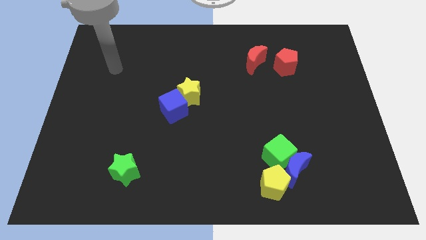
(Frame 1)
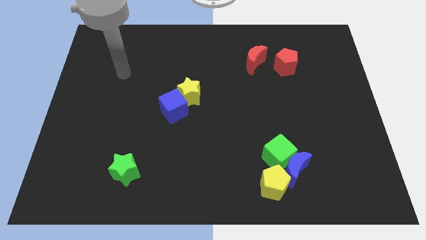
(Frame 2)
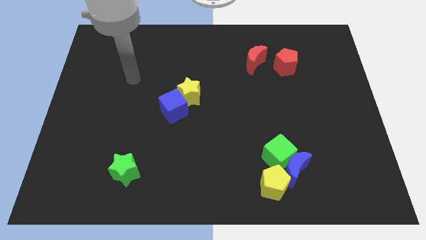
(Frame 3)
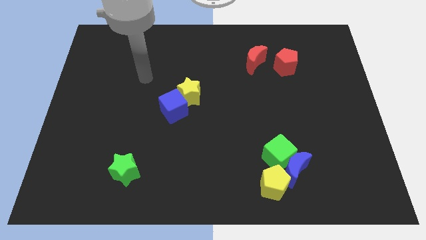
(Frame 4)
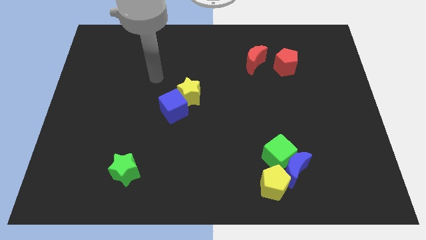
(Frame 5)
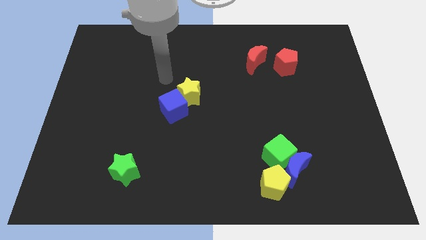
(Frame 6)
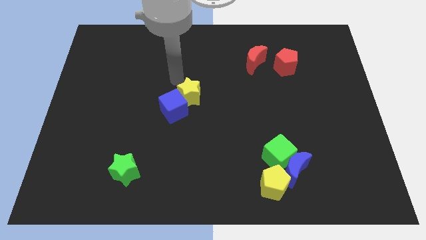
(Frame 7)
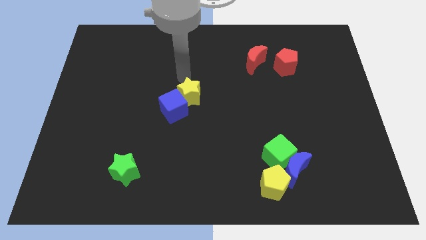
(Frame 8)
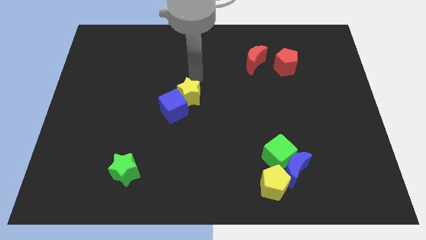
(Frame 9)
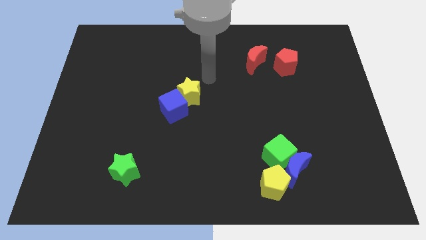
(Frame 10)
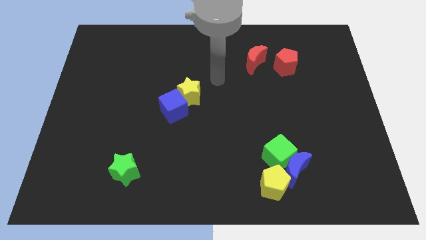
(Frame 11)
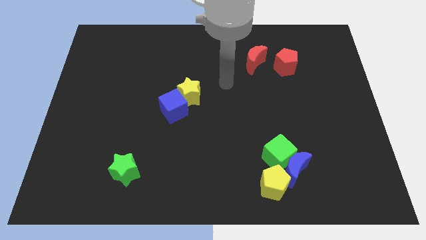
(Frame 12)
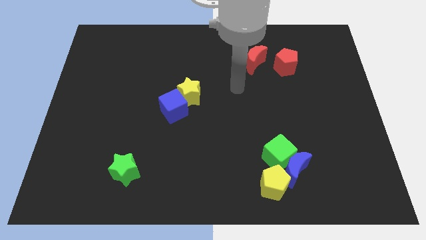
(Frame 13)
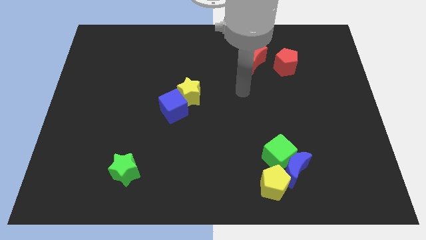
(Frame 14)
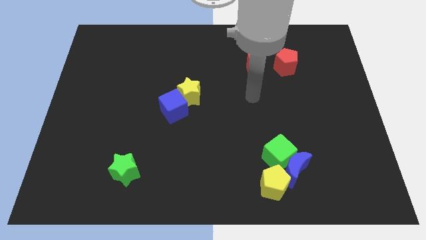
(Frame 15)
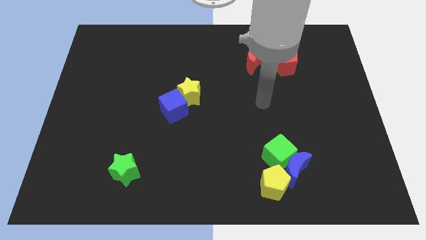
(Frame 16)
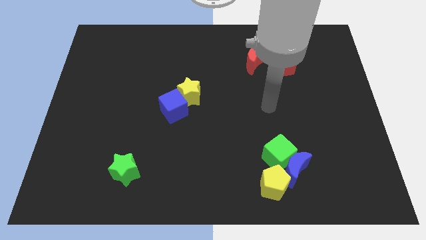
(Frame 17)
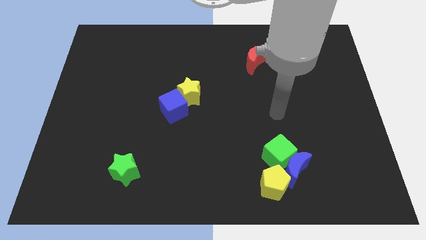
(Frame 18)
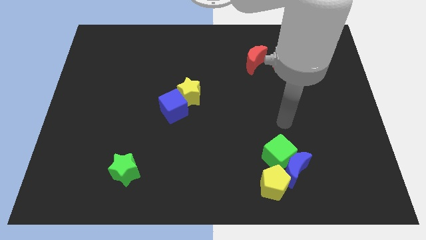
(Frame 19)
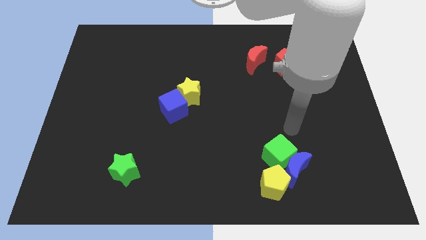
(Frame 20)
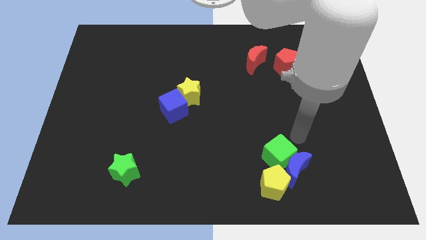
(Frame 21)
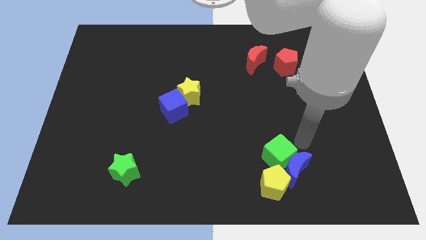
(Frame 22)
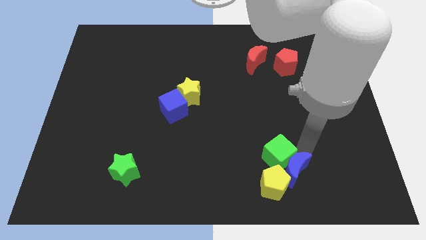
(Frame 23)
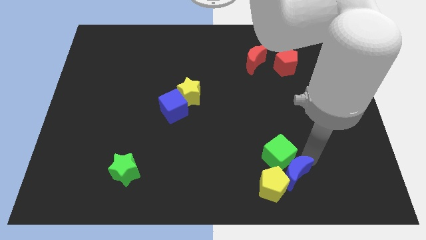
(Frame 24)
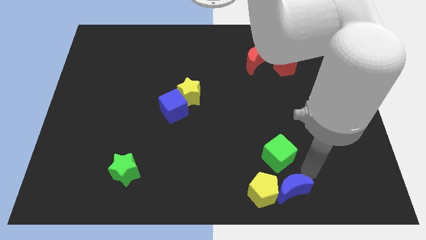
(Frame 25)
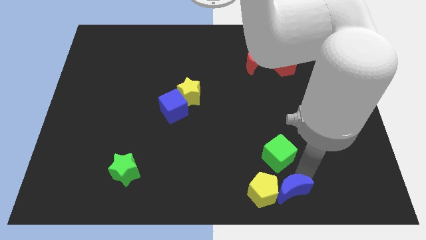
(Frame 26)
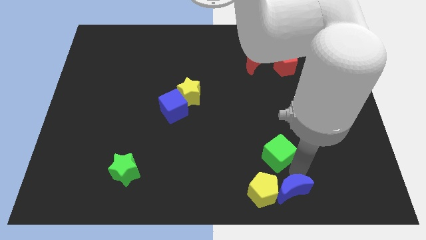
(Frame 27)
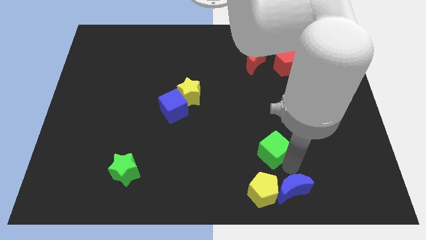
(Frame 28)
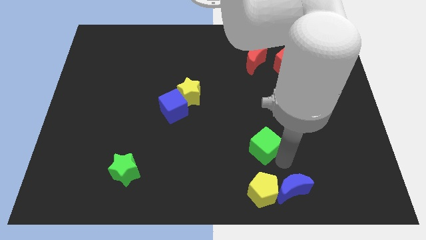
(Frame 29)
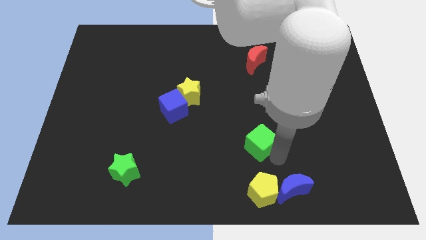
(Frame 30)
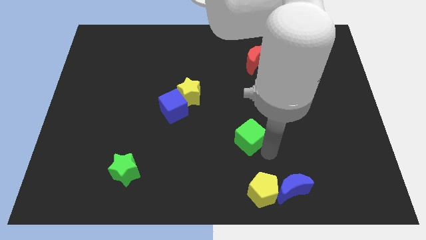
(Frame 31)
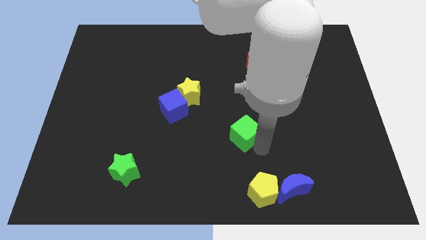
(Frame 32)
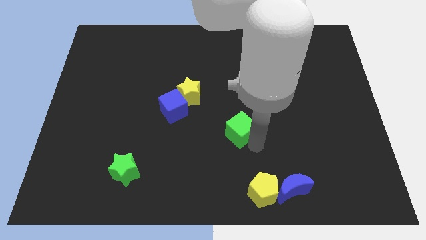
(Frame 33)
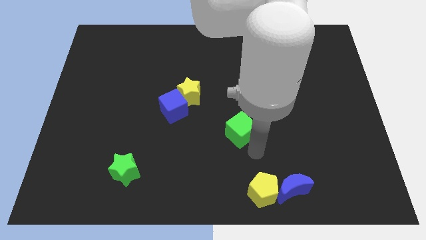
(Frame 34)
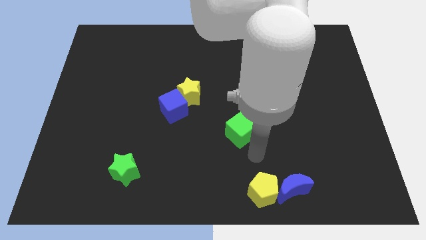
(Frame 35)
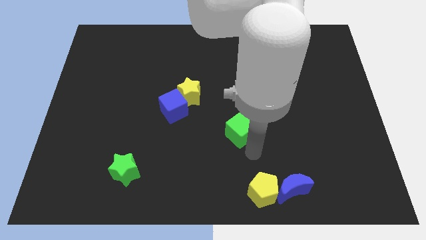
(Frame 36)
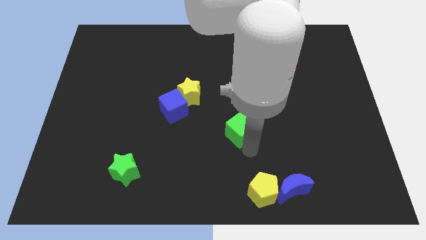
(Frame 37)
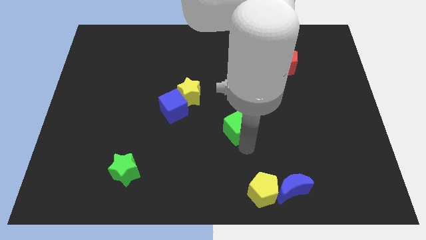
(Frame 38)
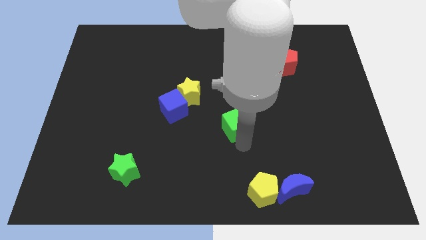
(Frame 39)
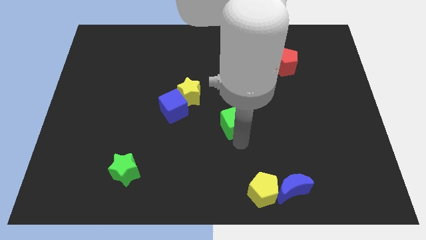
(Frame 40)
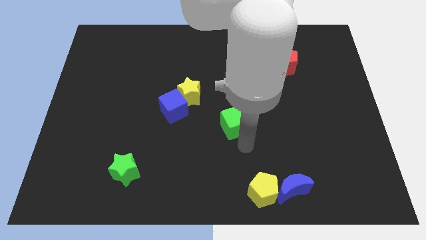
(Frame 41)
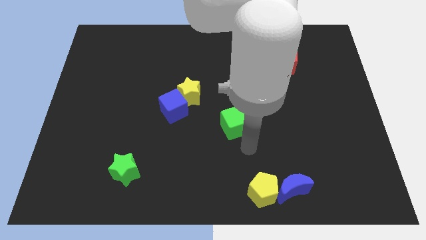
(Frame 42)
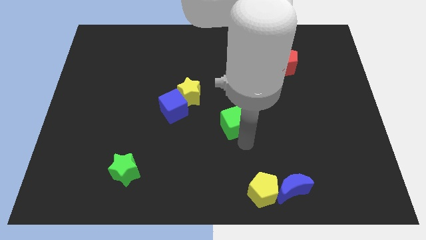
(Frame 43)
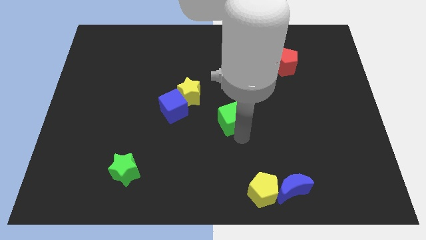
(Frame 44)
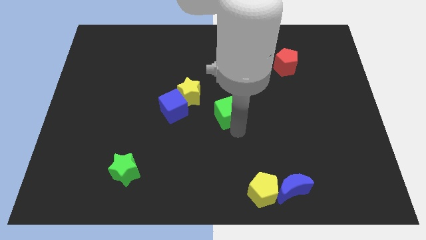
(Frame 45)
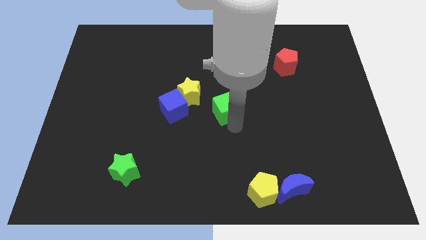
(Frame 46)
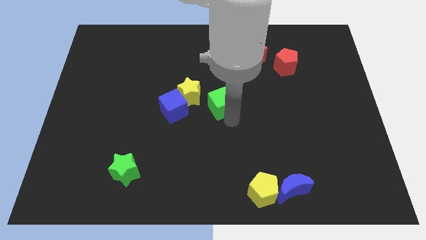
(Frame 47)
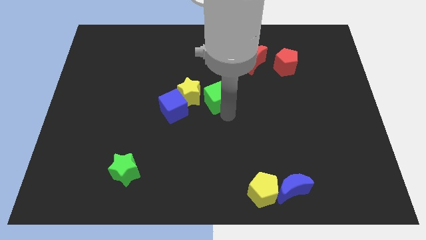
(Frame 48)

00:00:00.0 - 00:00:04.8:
slide the green cube up and left

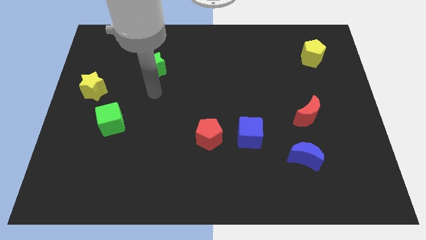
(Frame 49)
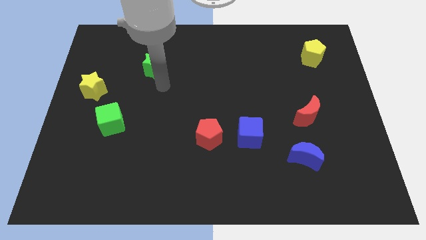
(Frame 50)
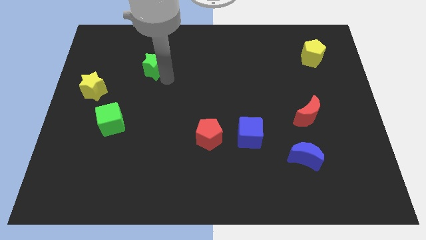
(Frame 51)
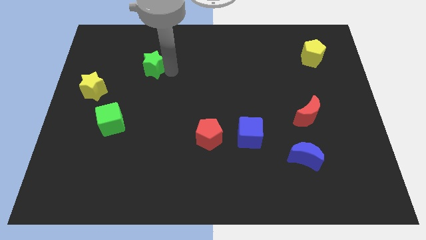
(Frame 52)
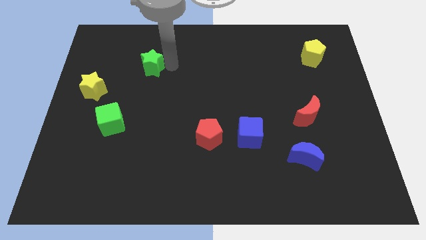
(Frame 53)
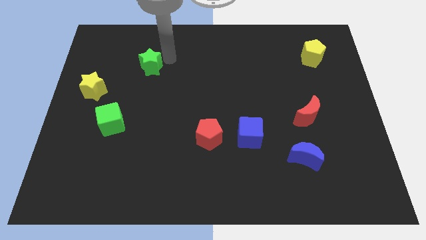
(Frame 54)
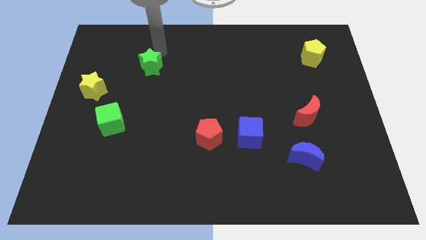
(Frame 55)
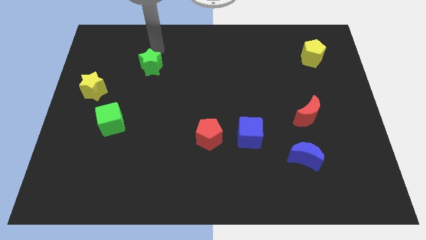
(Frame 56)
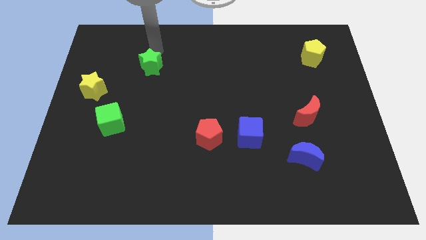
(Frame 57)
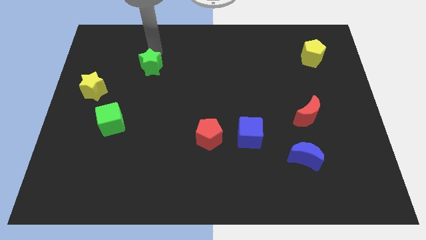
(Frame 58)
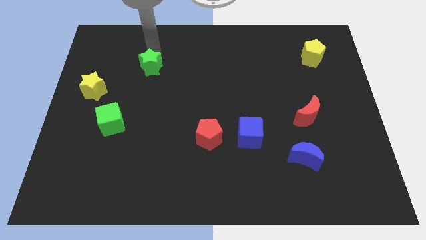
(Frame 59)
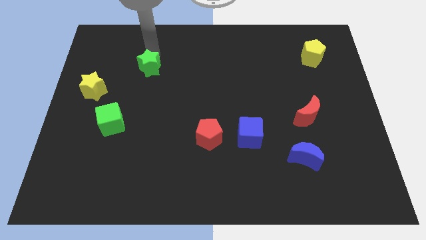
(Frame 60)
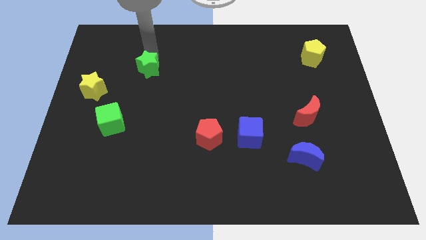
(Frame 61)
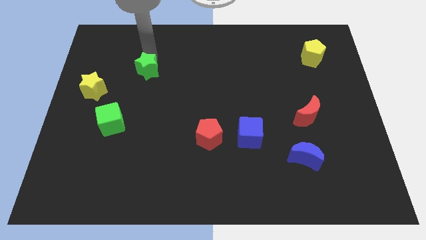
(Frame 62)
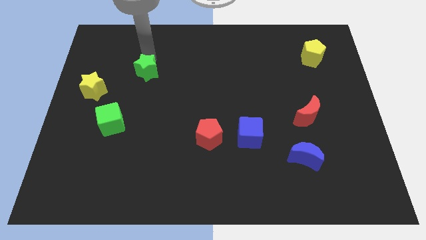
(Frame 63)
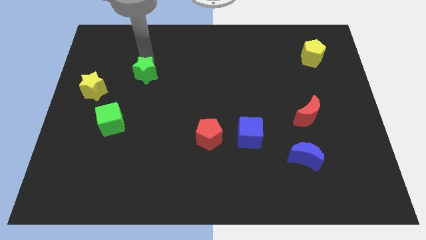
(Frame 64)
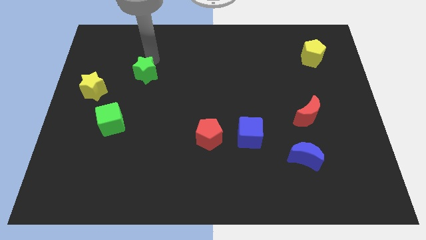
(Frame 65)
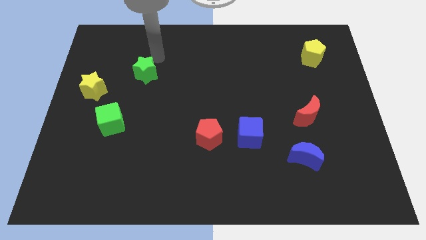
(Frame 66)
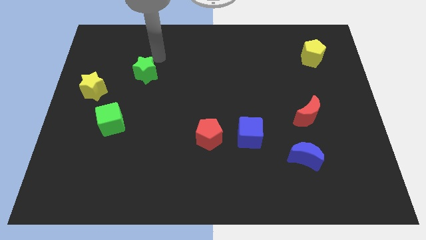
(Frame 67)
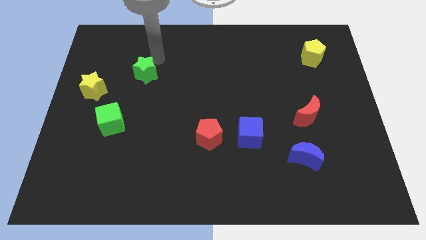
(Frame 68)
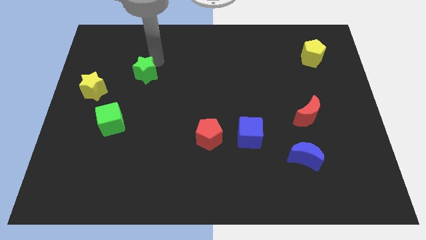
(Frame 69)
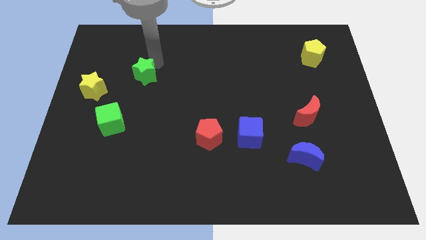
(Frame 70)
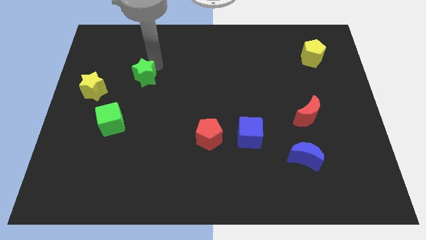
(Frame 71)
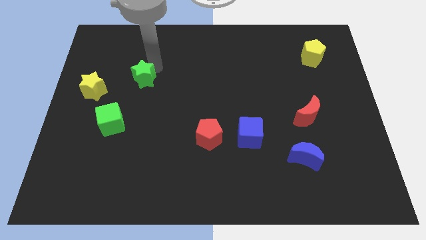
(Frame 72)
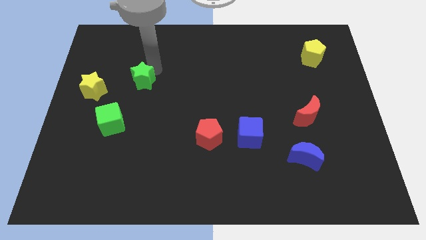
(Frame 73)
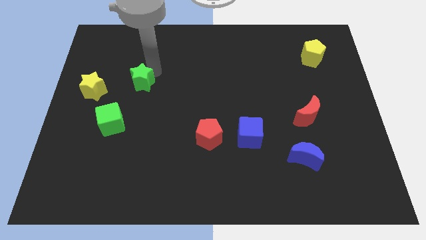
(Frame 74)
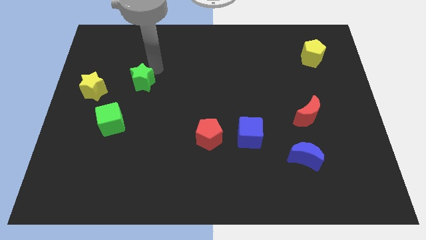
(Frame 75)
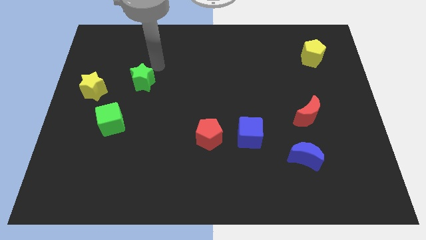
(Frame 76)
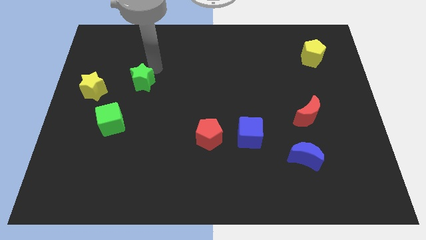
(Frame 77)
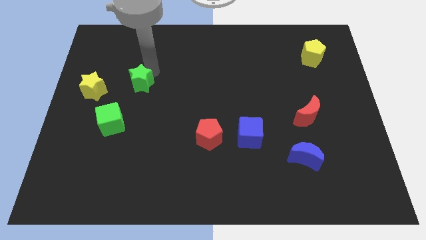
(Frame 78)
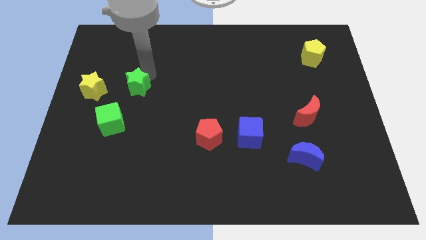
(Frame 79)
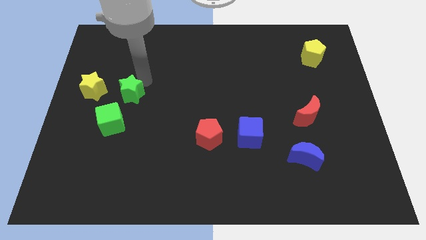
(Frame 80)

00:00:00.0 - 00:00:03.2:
slightly slide the green star downwards and left diagonally
